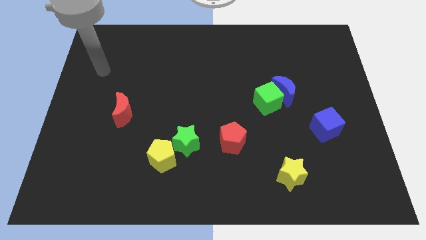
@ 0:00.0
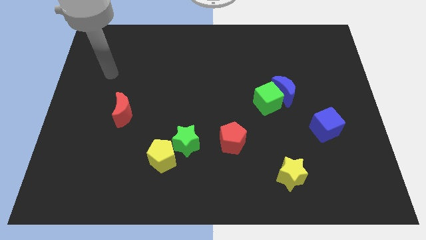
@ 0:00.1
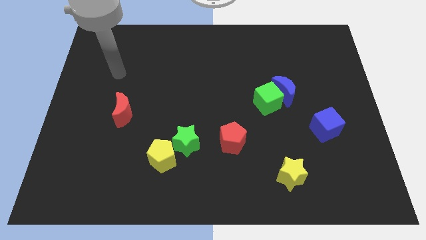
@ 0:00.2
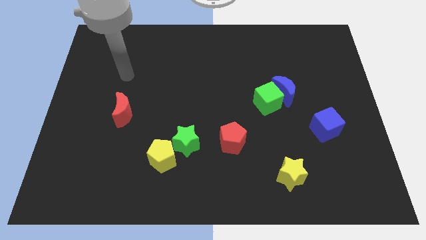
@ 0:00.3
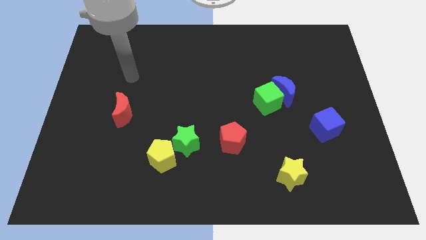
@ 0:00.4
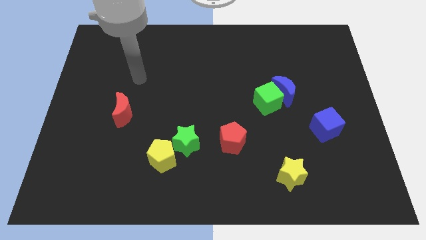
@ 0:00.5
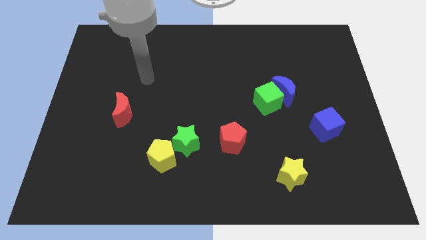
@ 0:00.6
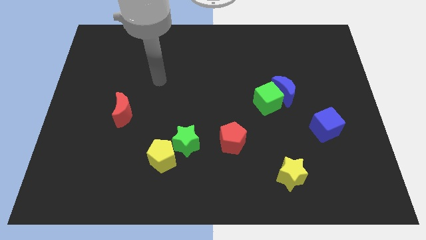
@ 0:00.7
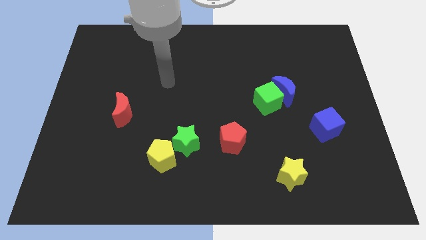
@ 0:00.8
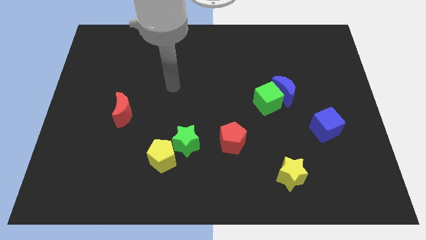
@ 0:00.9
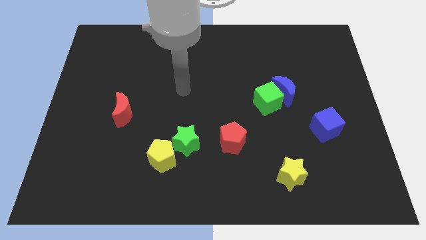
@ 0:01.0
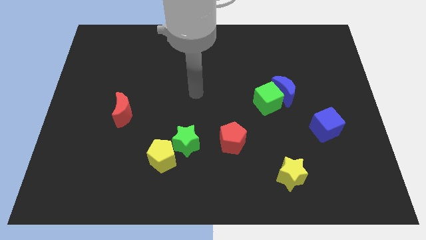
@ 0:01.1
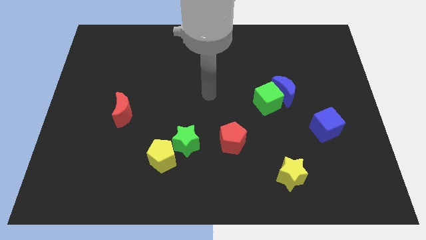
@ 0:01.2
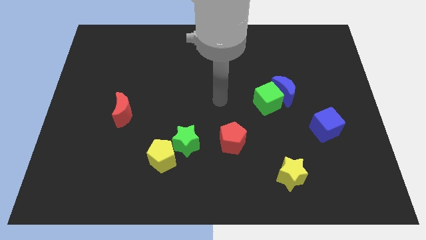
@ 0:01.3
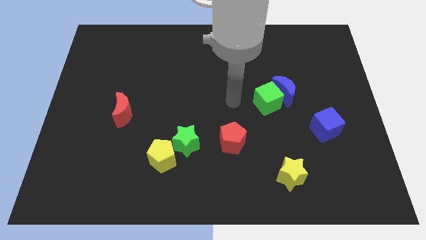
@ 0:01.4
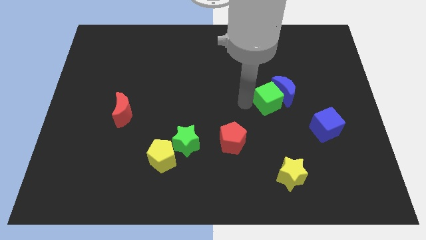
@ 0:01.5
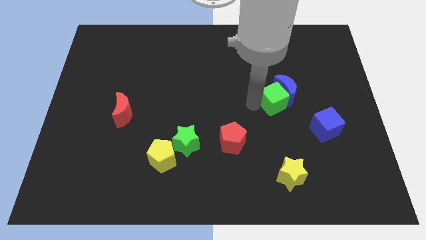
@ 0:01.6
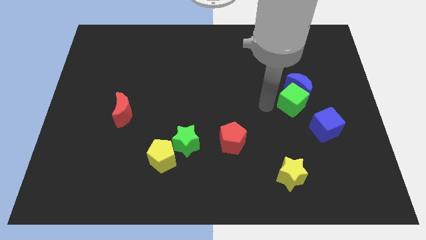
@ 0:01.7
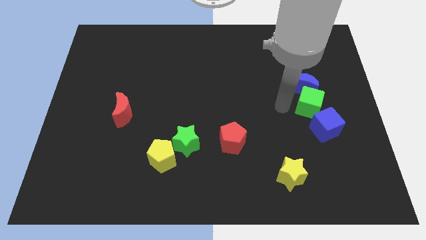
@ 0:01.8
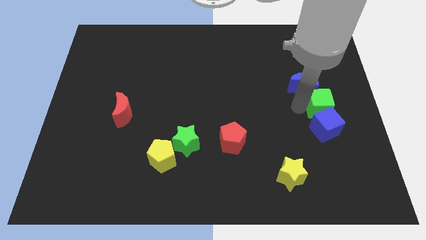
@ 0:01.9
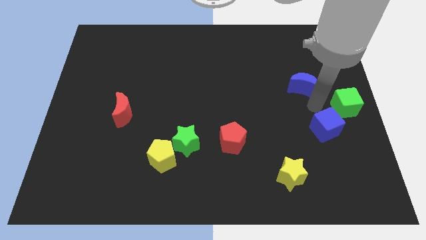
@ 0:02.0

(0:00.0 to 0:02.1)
move the blue moon away from the green cube

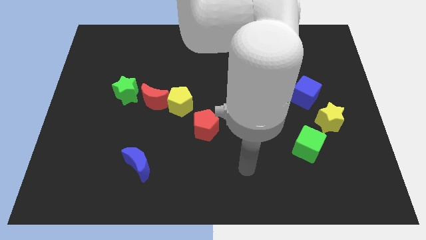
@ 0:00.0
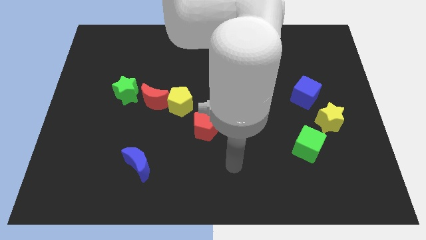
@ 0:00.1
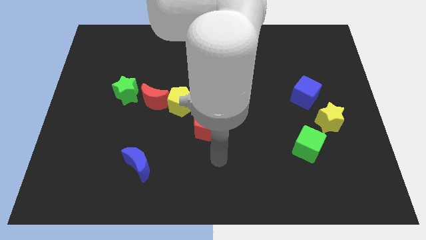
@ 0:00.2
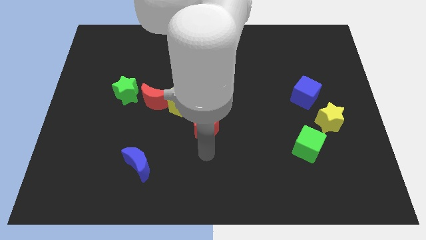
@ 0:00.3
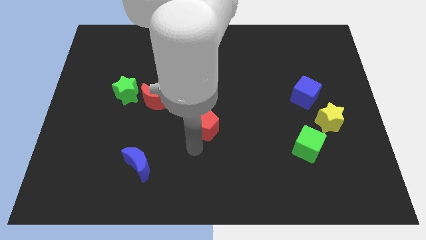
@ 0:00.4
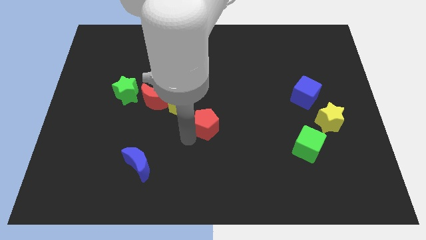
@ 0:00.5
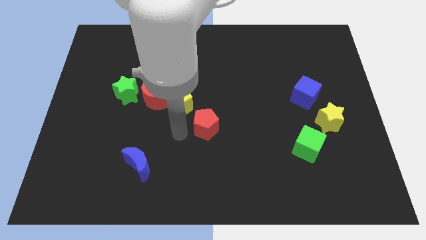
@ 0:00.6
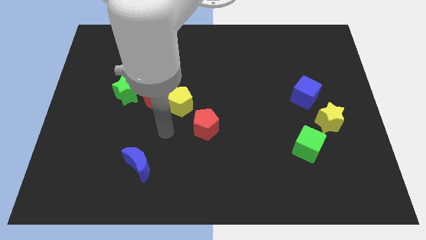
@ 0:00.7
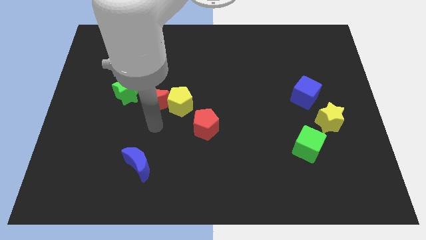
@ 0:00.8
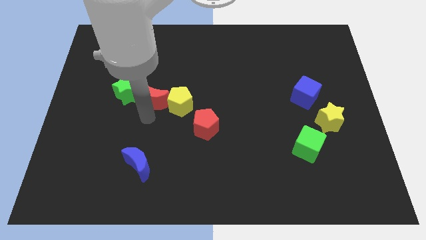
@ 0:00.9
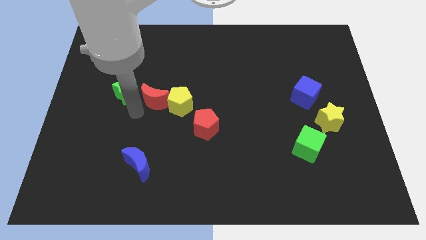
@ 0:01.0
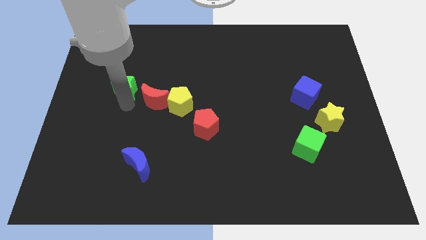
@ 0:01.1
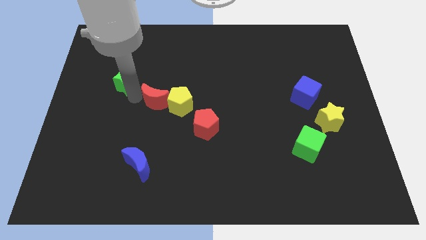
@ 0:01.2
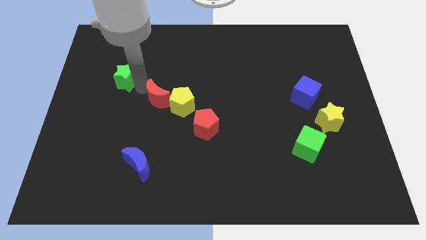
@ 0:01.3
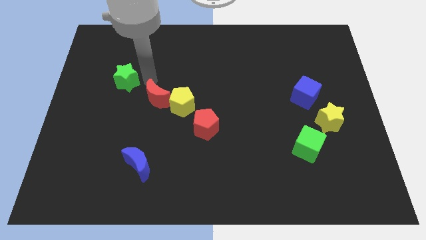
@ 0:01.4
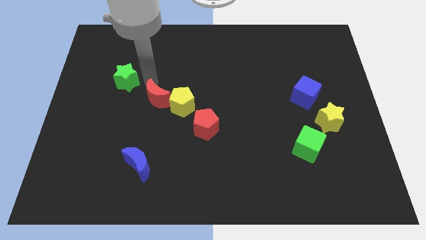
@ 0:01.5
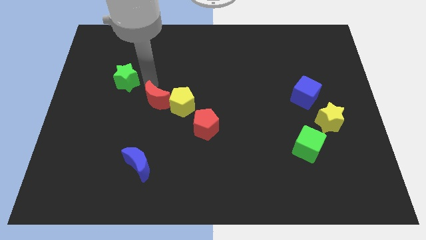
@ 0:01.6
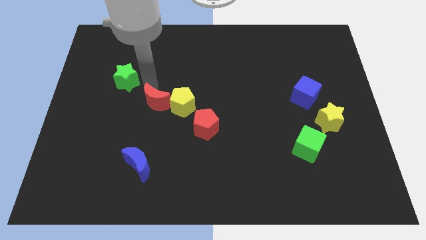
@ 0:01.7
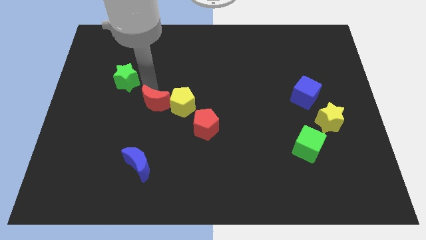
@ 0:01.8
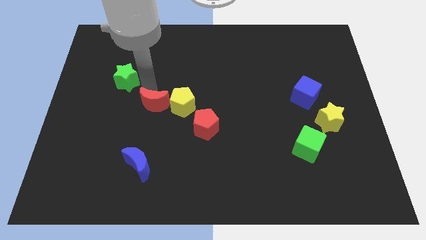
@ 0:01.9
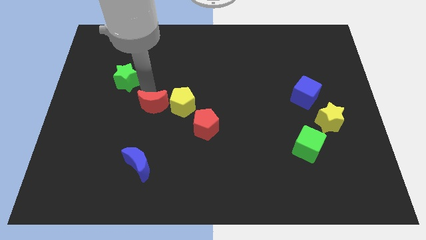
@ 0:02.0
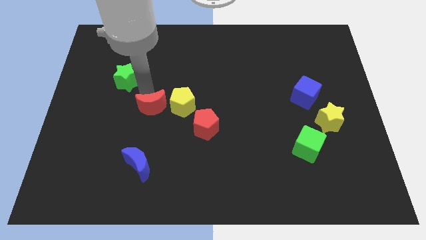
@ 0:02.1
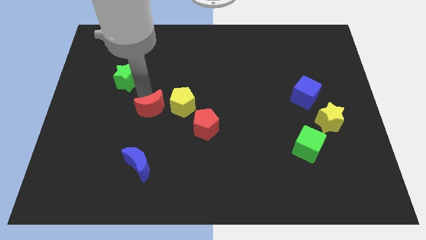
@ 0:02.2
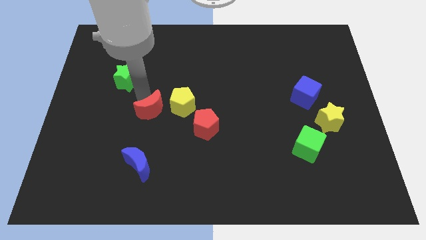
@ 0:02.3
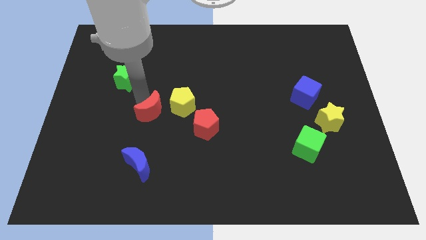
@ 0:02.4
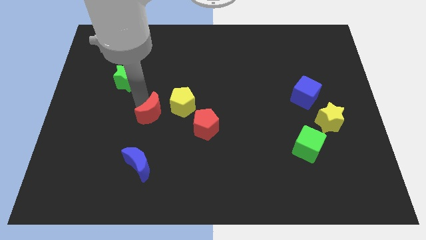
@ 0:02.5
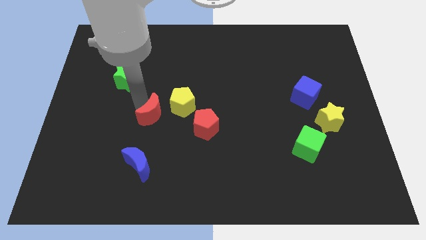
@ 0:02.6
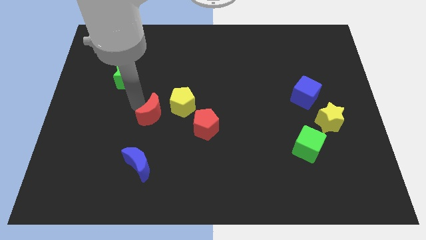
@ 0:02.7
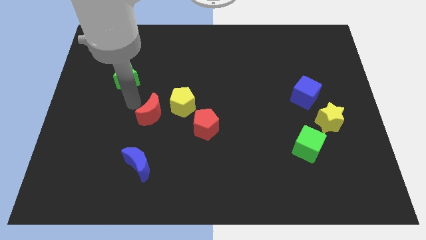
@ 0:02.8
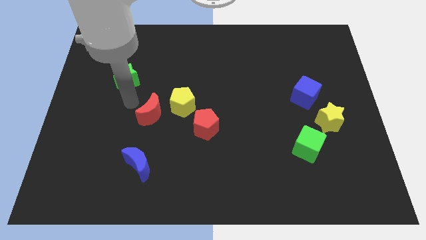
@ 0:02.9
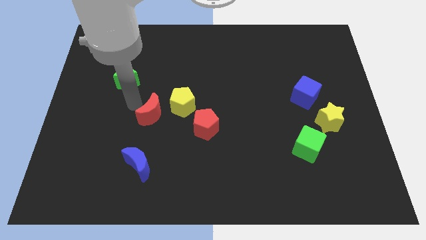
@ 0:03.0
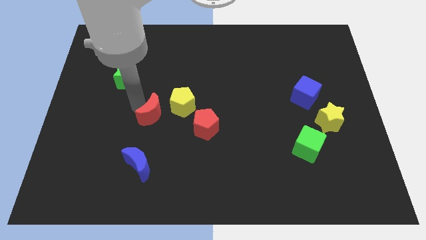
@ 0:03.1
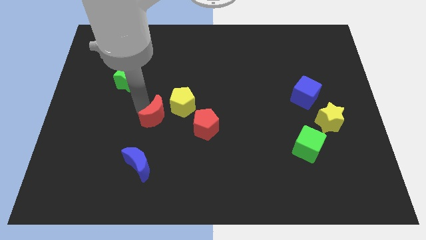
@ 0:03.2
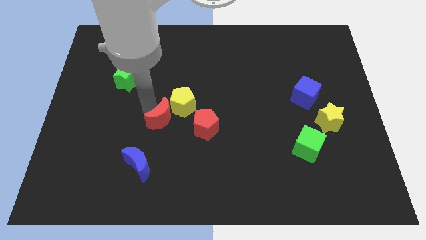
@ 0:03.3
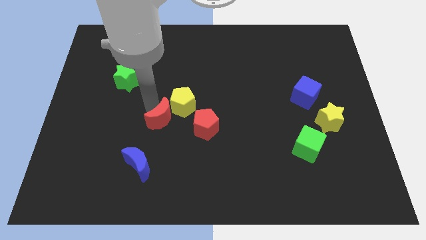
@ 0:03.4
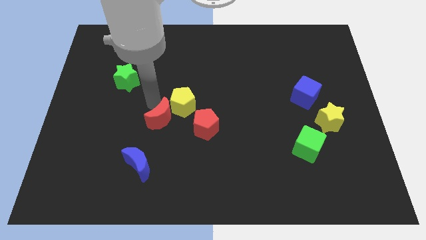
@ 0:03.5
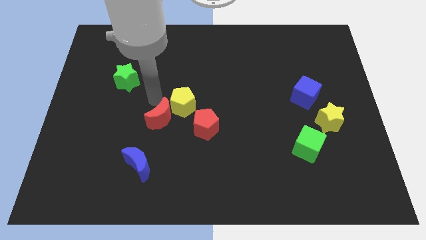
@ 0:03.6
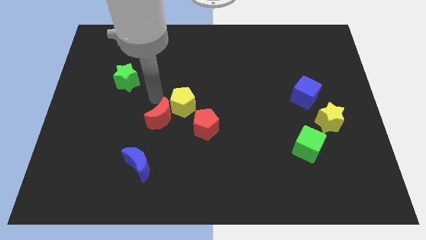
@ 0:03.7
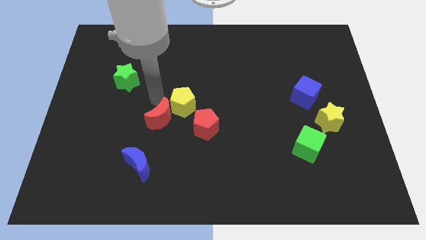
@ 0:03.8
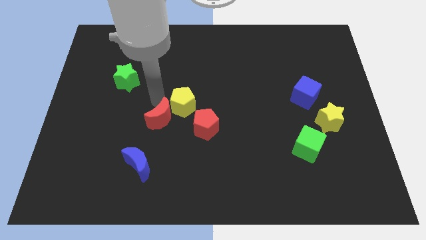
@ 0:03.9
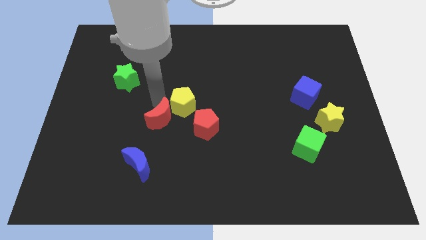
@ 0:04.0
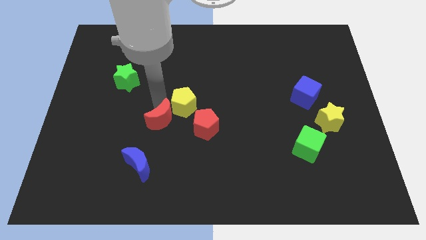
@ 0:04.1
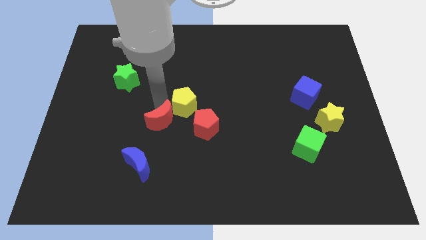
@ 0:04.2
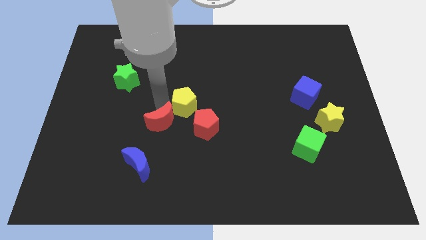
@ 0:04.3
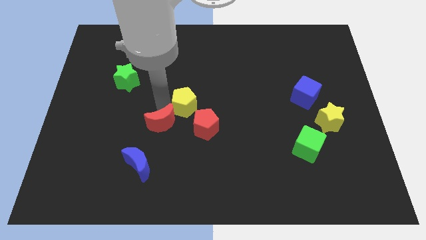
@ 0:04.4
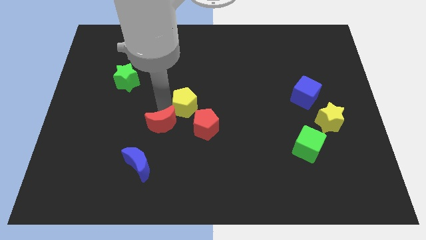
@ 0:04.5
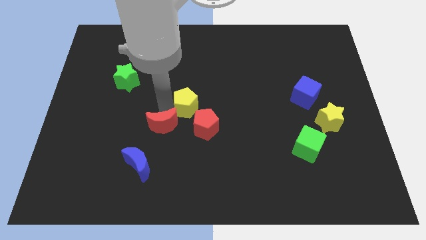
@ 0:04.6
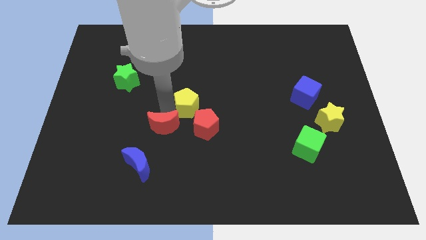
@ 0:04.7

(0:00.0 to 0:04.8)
move the red moon away from the yellow pentagon and green star

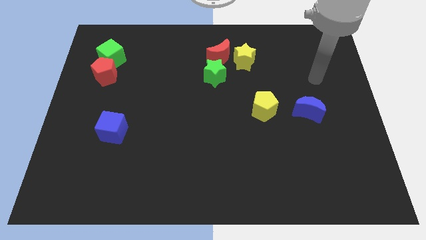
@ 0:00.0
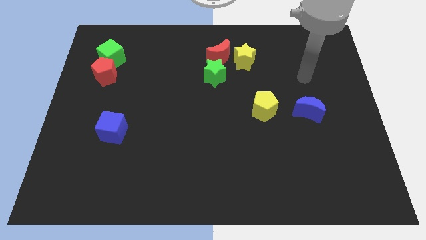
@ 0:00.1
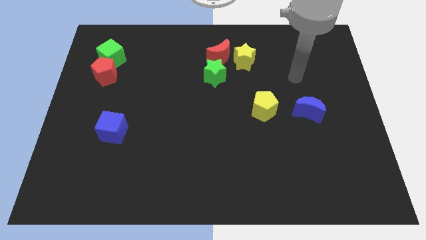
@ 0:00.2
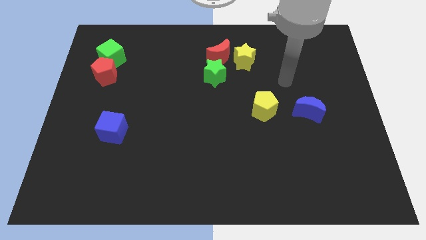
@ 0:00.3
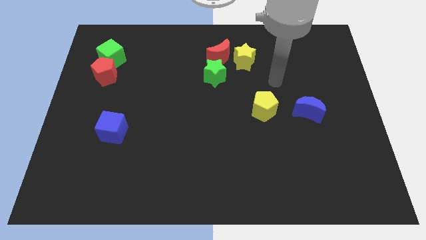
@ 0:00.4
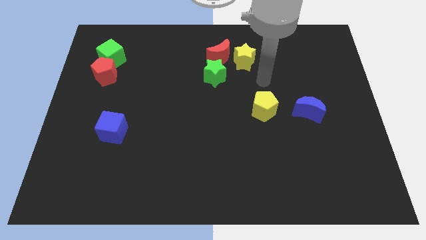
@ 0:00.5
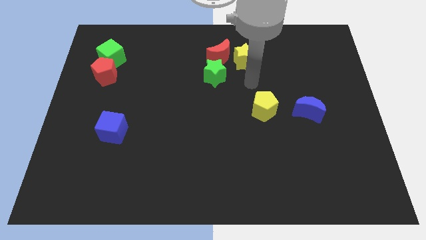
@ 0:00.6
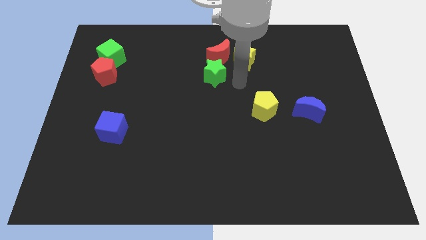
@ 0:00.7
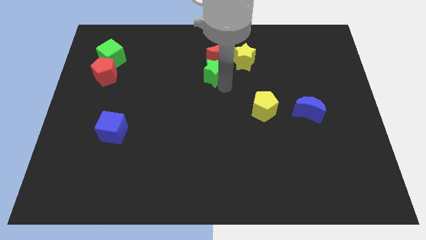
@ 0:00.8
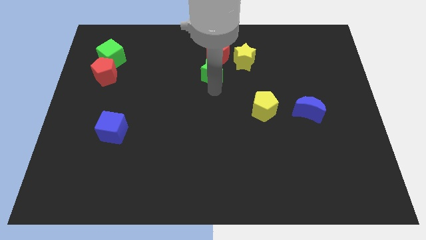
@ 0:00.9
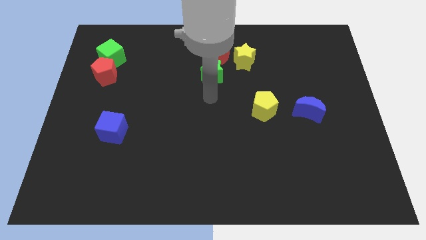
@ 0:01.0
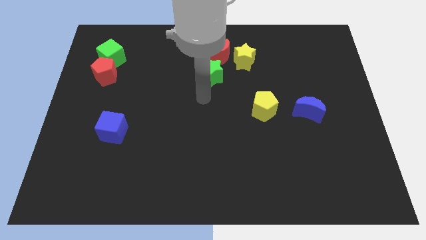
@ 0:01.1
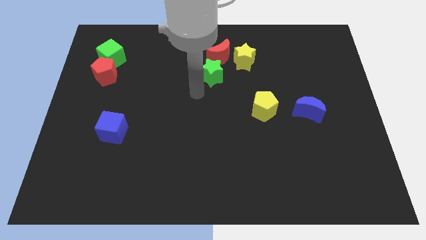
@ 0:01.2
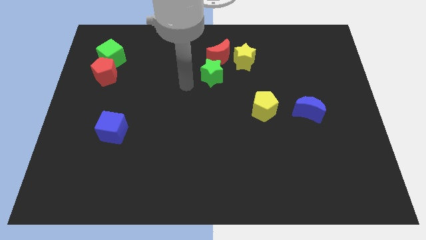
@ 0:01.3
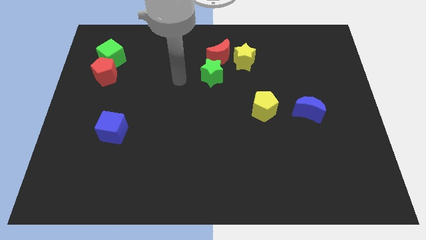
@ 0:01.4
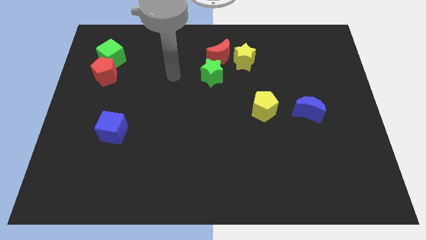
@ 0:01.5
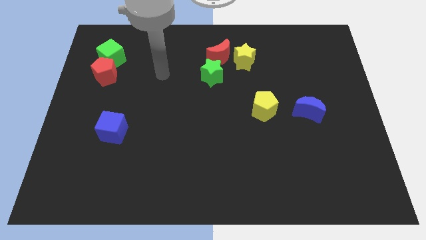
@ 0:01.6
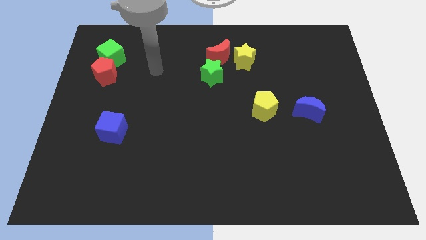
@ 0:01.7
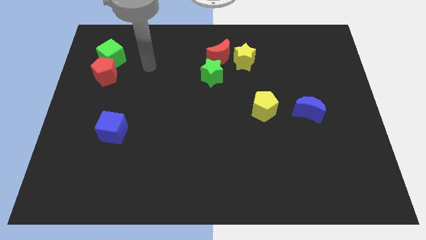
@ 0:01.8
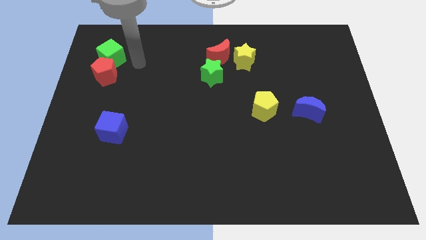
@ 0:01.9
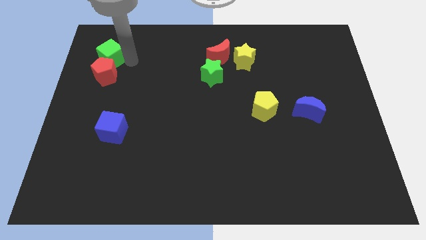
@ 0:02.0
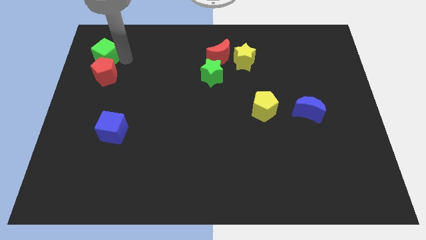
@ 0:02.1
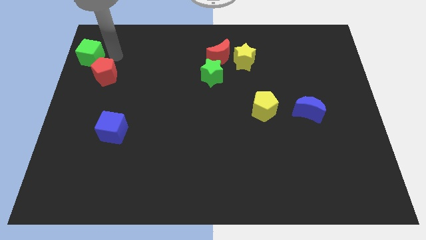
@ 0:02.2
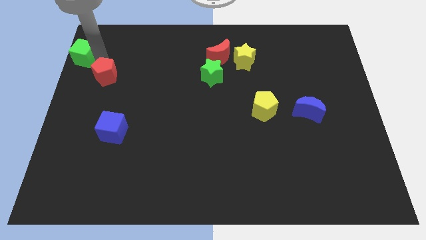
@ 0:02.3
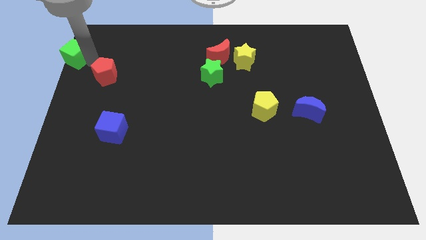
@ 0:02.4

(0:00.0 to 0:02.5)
move the red pentagon away from the green cube

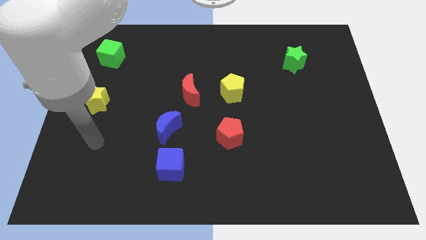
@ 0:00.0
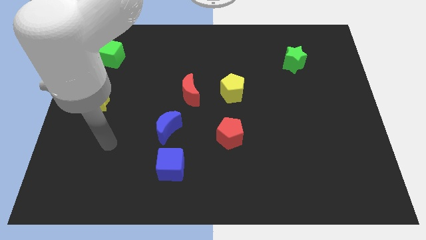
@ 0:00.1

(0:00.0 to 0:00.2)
pull the blue moon apart from the blue cube
